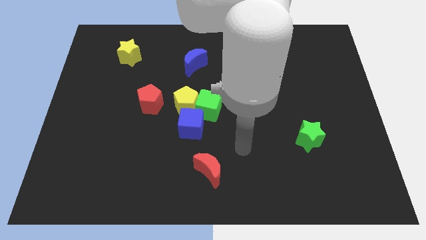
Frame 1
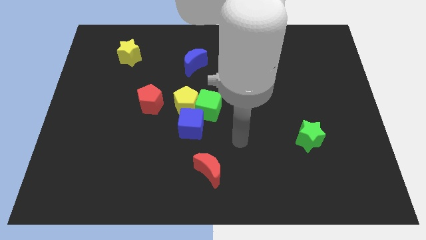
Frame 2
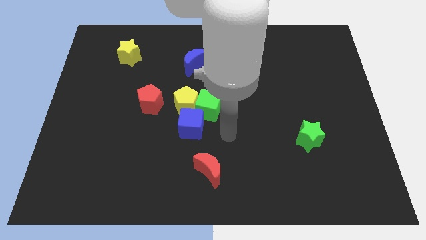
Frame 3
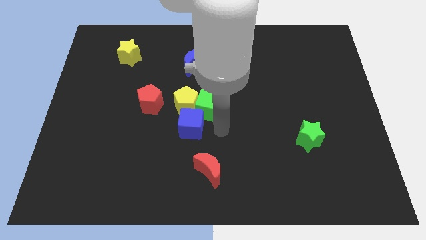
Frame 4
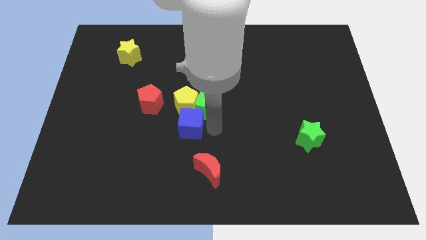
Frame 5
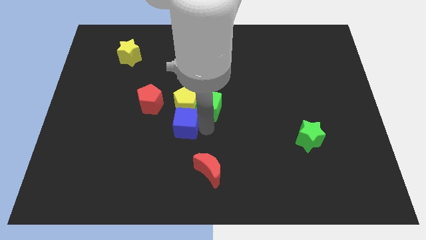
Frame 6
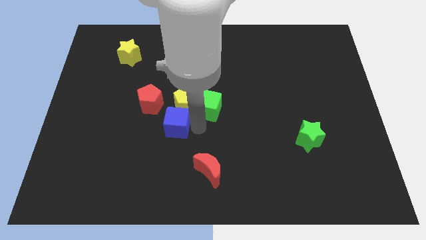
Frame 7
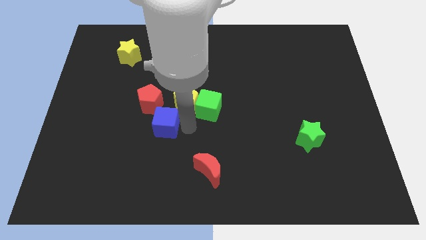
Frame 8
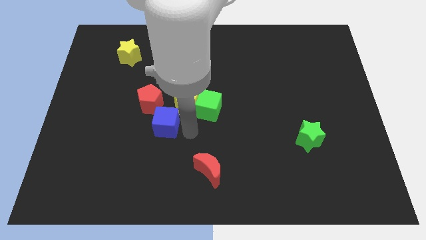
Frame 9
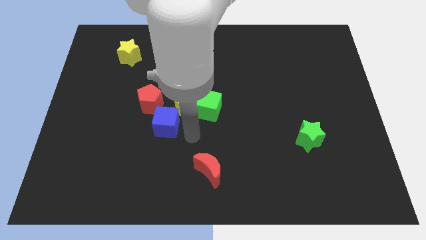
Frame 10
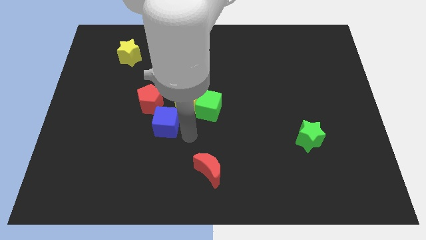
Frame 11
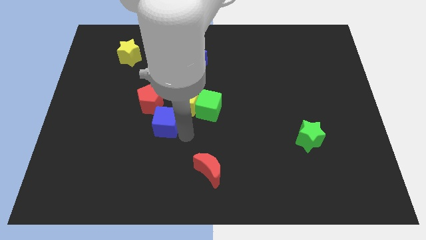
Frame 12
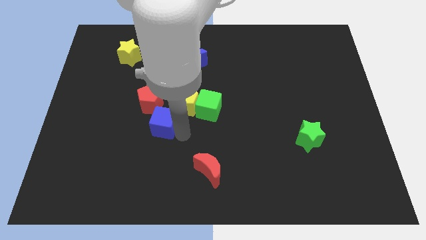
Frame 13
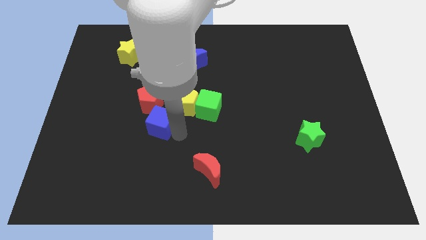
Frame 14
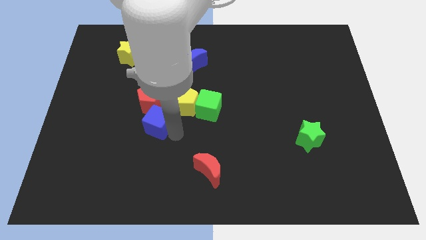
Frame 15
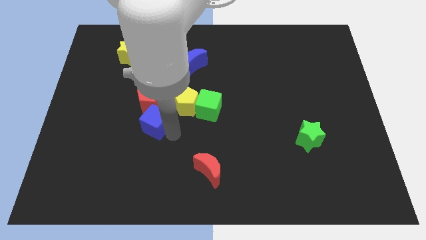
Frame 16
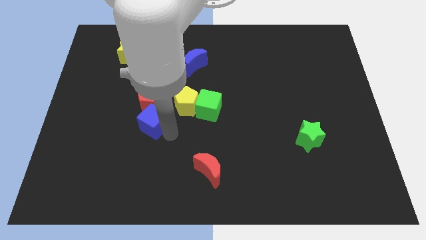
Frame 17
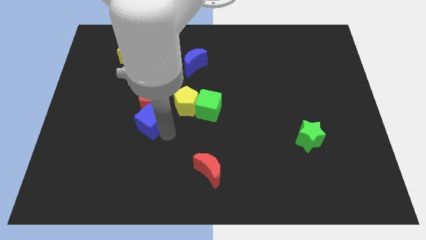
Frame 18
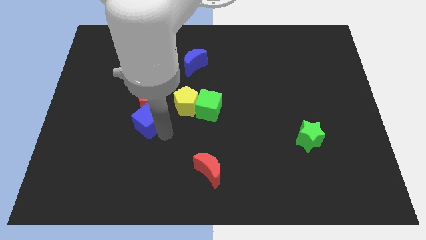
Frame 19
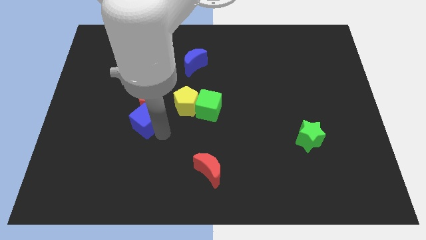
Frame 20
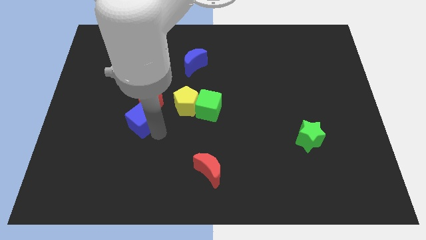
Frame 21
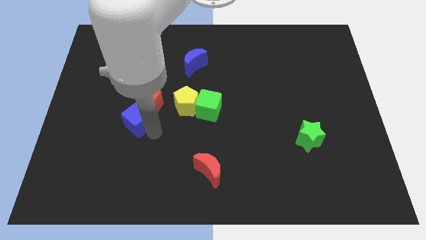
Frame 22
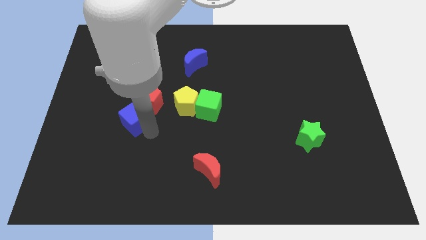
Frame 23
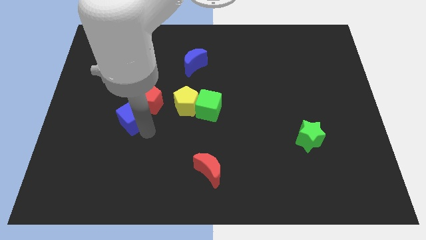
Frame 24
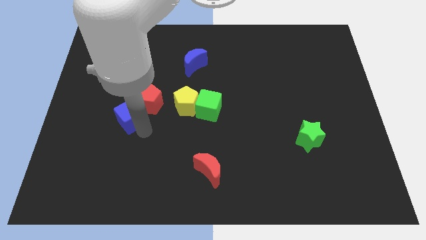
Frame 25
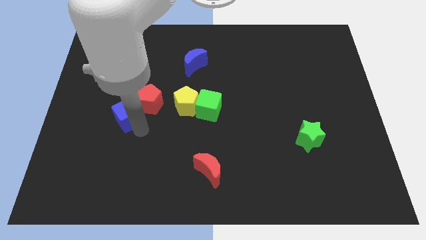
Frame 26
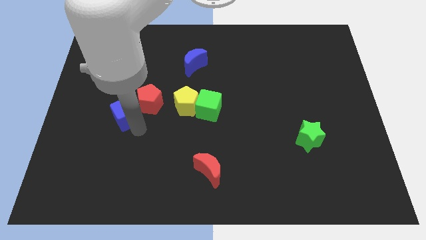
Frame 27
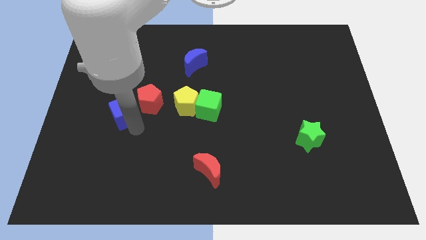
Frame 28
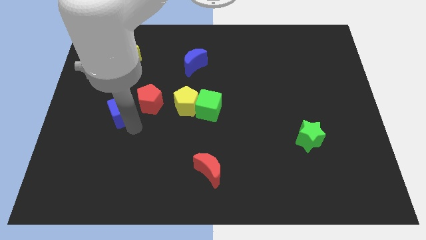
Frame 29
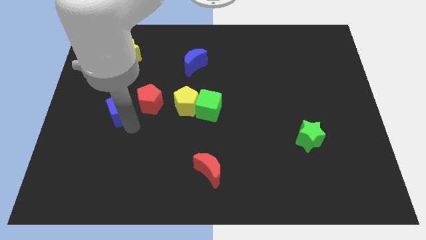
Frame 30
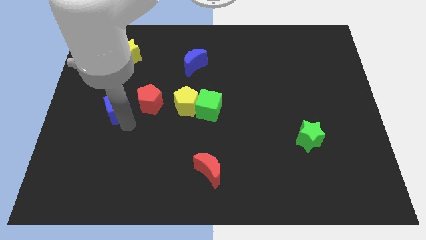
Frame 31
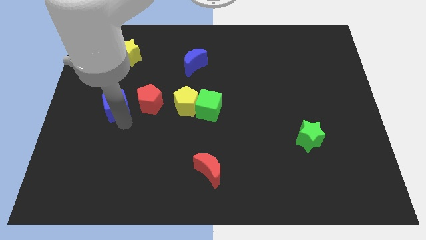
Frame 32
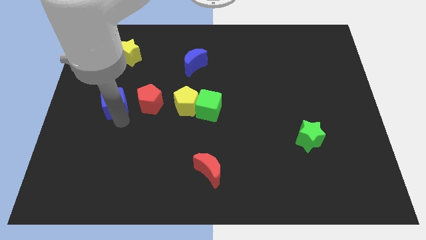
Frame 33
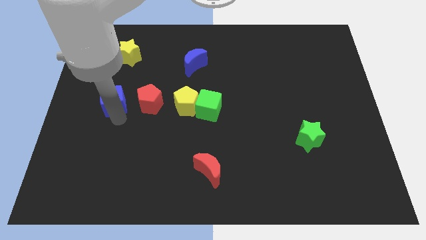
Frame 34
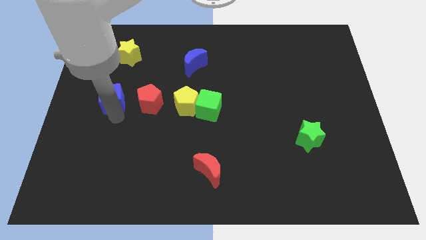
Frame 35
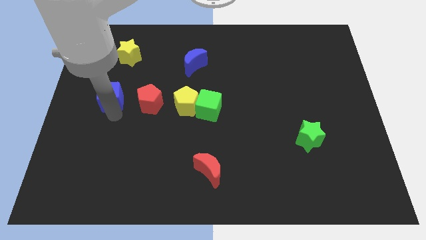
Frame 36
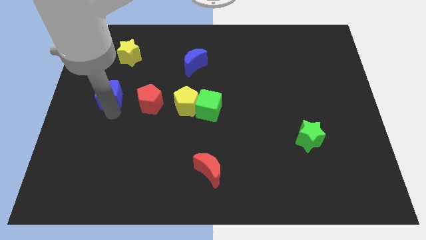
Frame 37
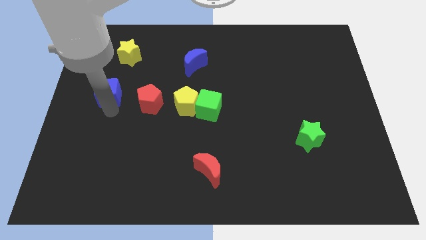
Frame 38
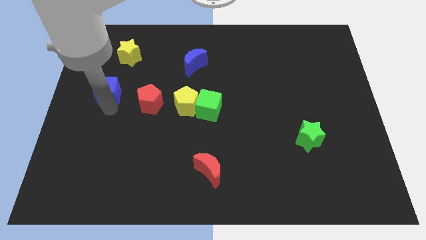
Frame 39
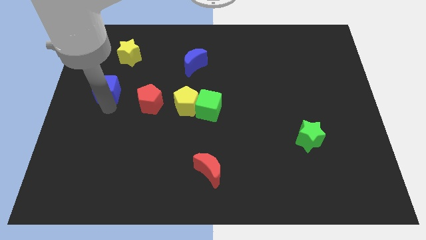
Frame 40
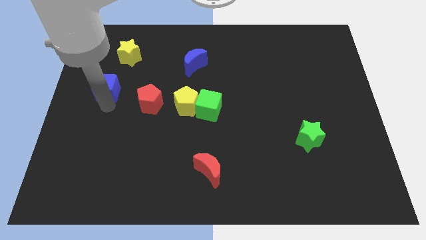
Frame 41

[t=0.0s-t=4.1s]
slide the blue cube up and to the left diagonally

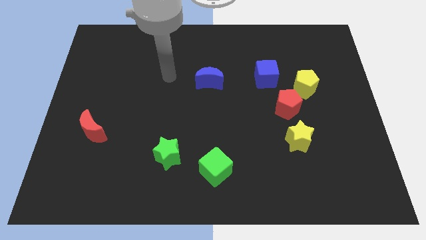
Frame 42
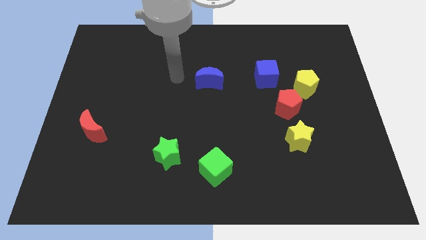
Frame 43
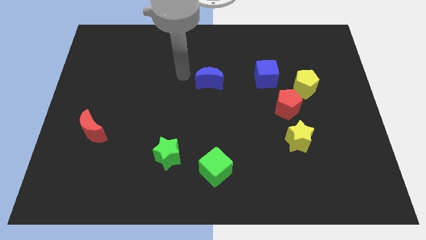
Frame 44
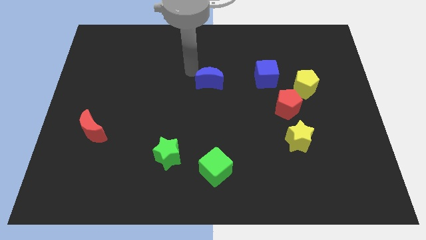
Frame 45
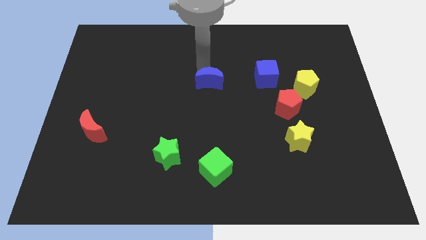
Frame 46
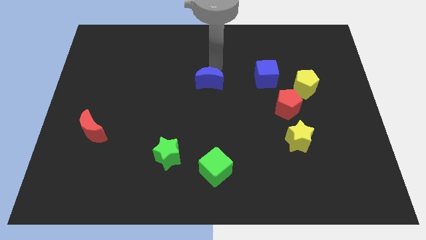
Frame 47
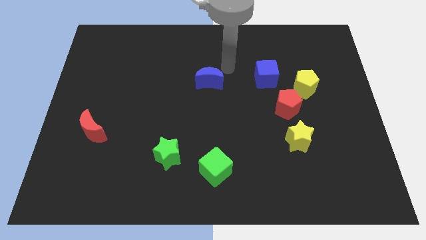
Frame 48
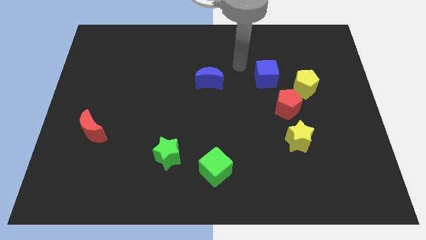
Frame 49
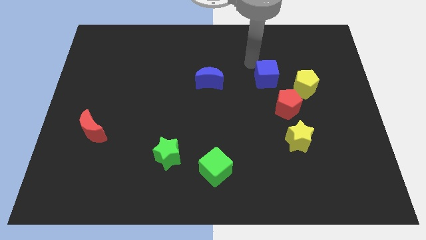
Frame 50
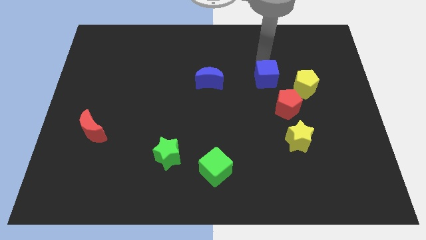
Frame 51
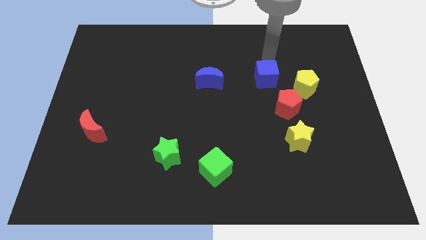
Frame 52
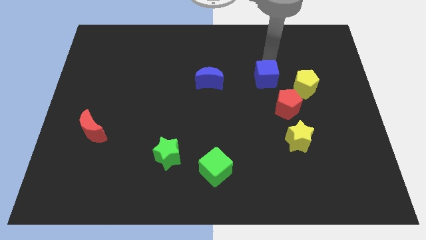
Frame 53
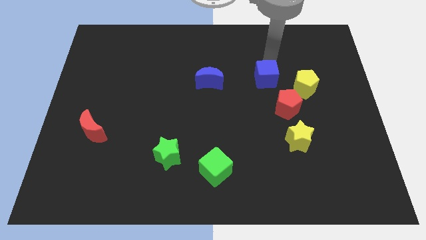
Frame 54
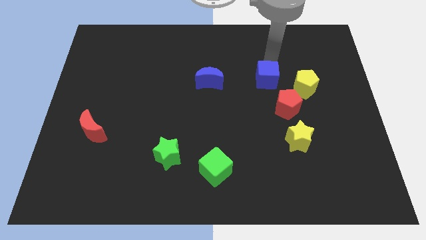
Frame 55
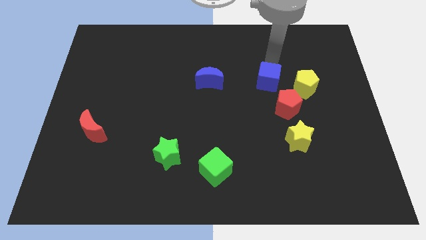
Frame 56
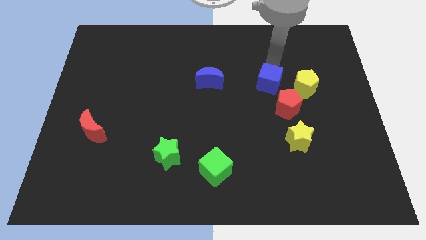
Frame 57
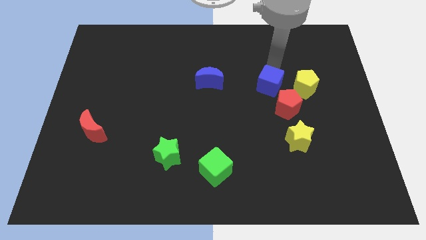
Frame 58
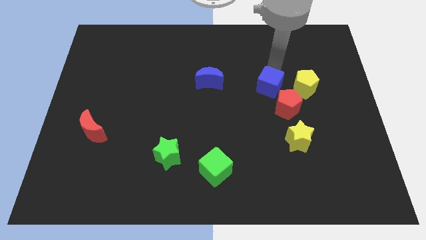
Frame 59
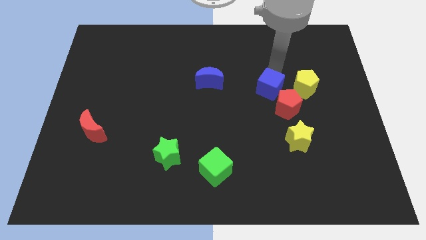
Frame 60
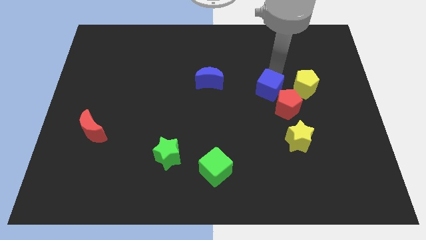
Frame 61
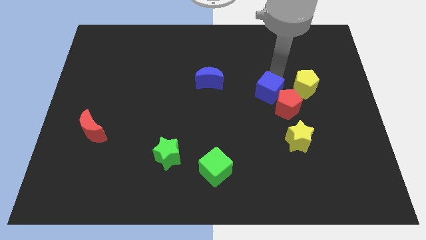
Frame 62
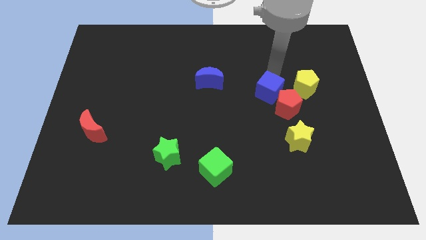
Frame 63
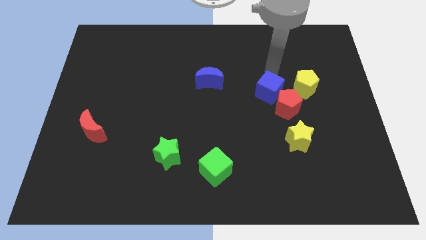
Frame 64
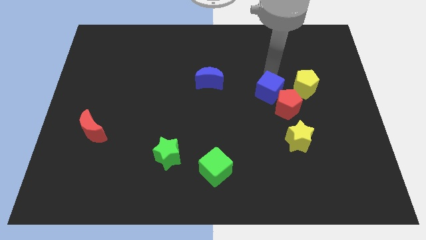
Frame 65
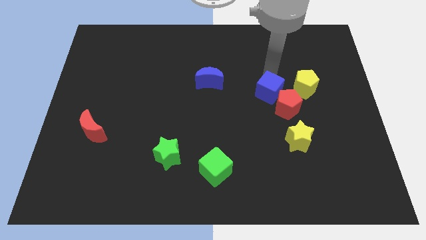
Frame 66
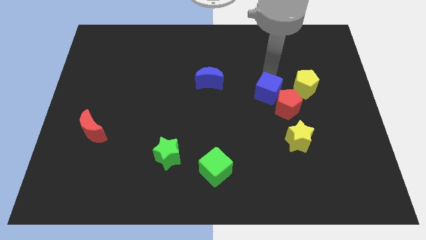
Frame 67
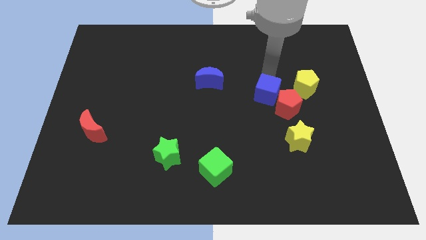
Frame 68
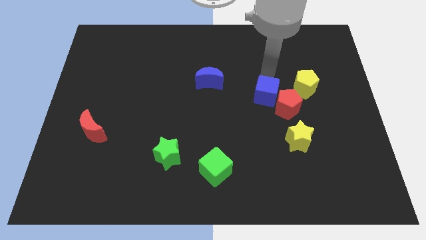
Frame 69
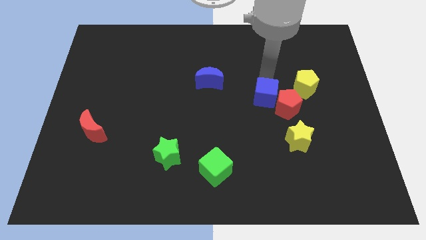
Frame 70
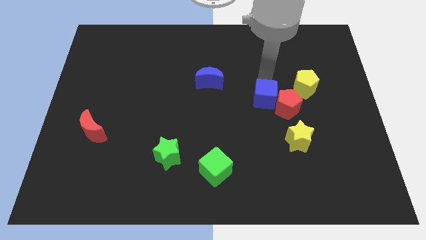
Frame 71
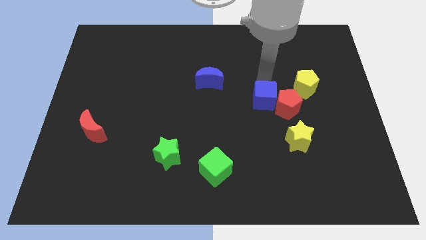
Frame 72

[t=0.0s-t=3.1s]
slide the blue cube slightly downwards

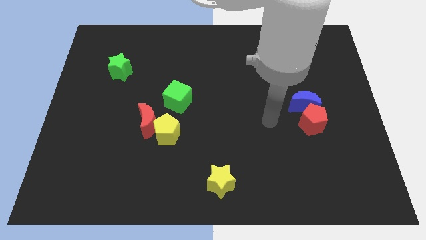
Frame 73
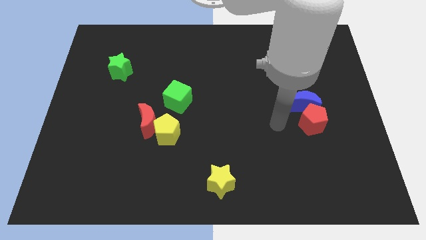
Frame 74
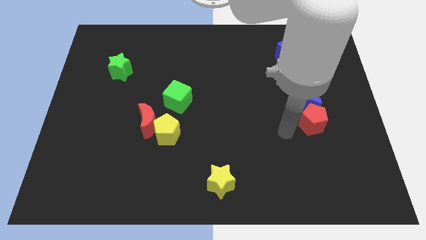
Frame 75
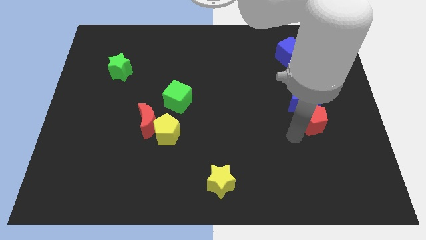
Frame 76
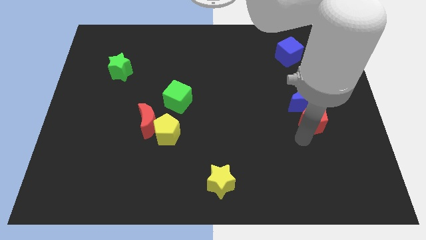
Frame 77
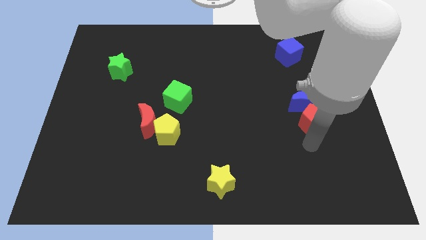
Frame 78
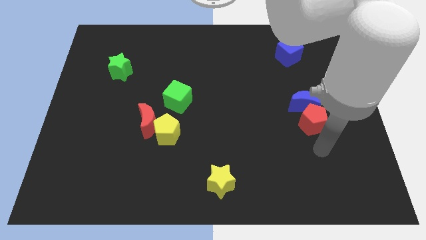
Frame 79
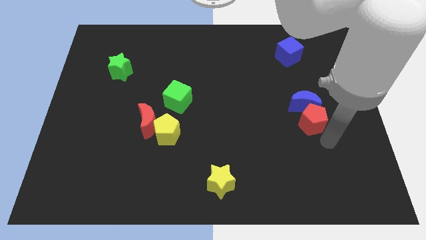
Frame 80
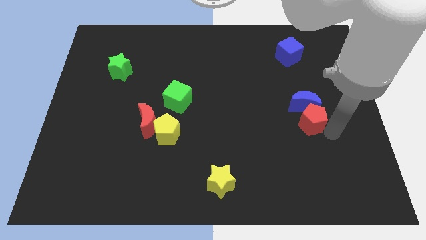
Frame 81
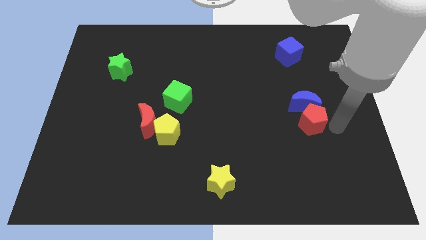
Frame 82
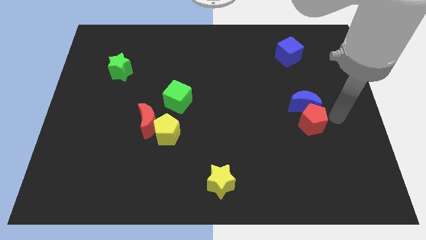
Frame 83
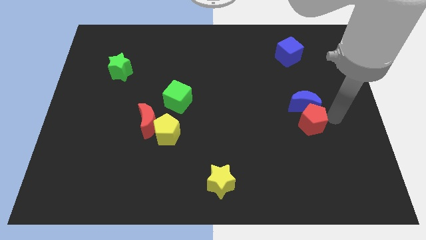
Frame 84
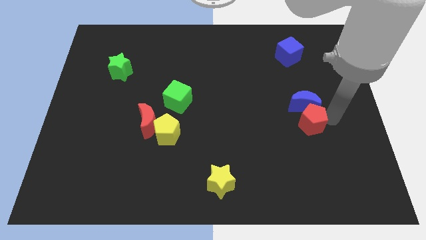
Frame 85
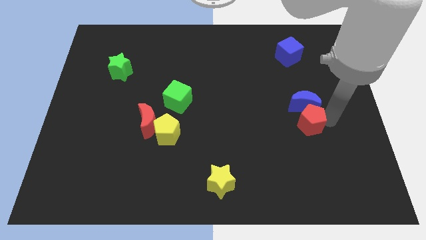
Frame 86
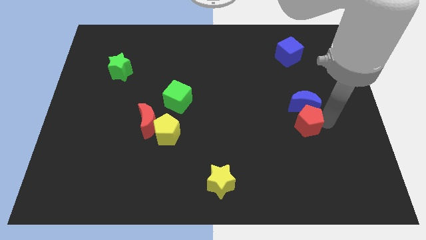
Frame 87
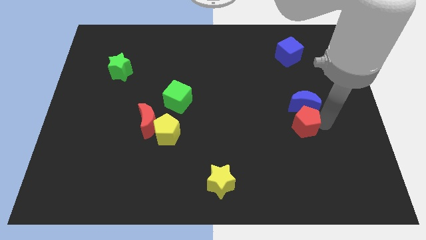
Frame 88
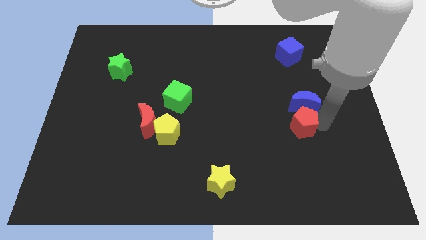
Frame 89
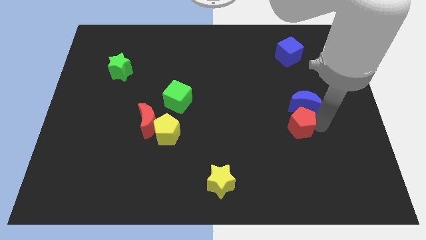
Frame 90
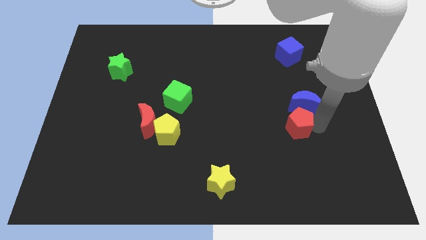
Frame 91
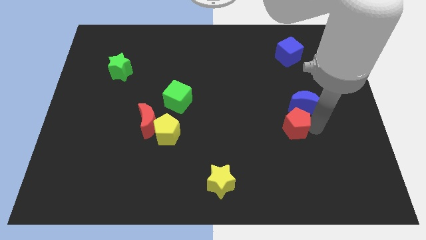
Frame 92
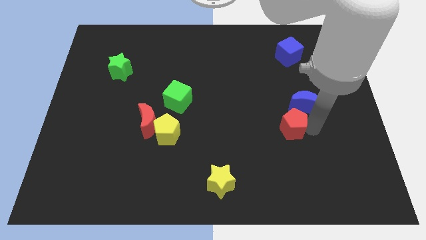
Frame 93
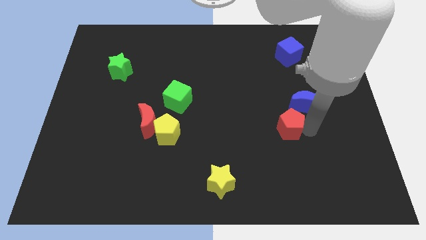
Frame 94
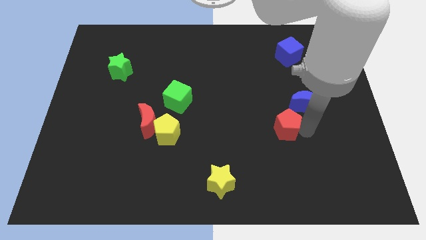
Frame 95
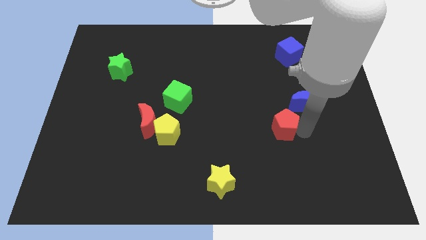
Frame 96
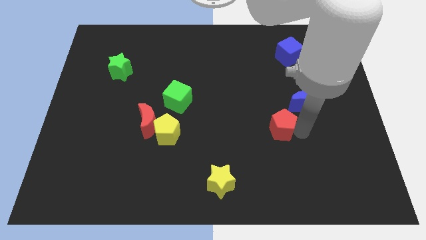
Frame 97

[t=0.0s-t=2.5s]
slightly push the red pentagon to the left
